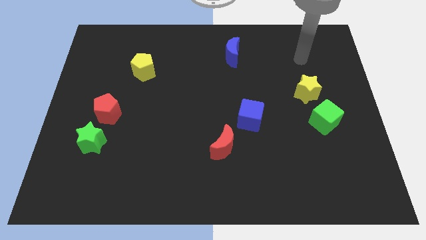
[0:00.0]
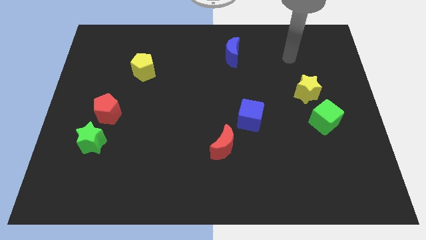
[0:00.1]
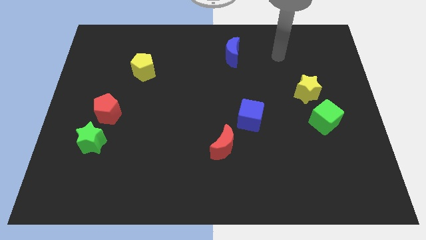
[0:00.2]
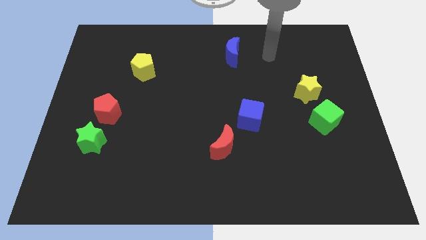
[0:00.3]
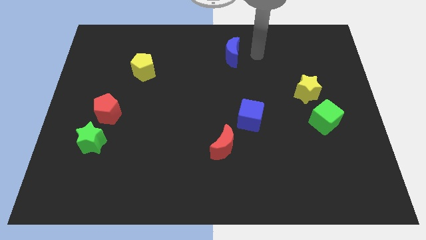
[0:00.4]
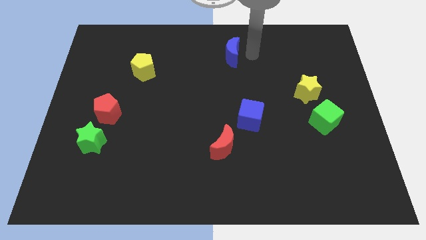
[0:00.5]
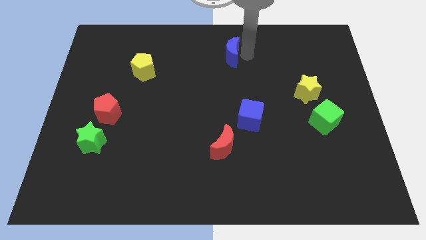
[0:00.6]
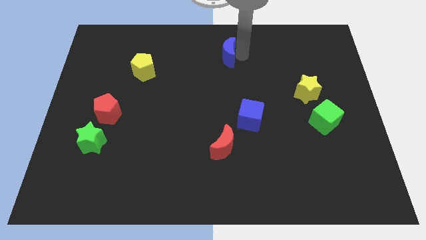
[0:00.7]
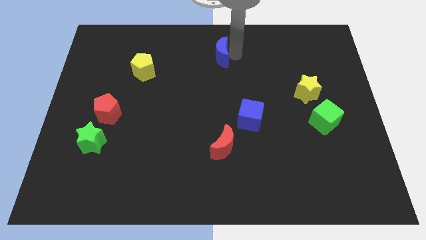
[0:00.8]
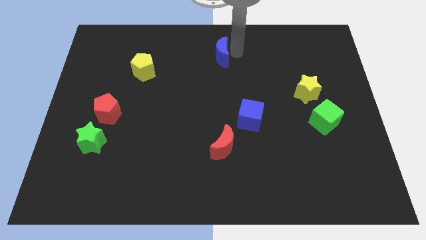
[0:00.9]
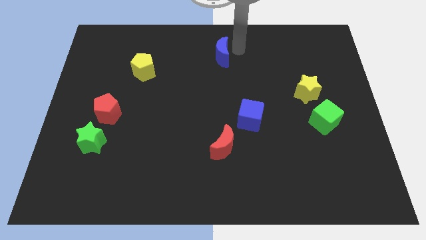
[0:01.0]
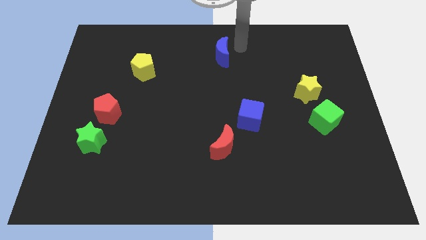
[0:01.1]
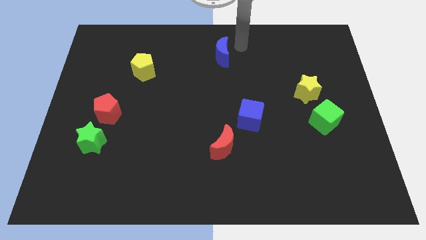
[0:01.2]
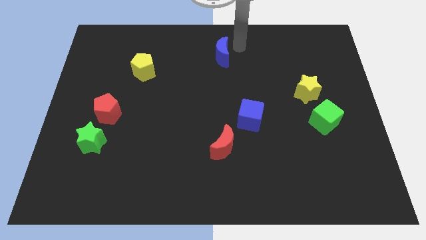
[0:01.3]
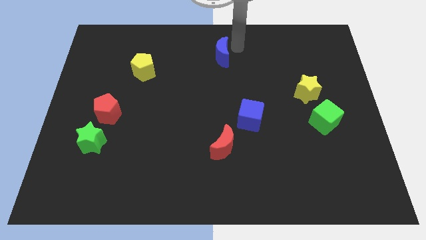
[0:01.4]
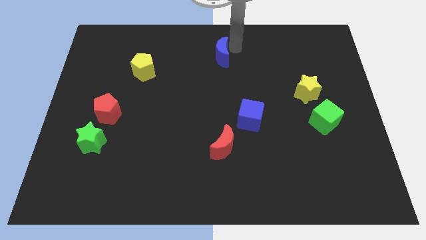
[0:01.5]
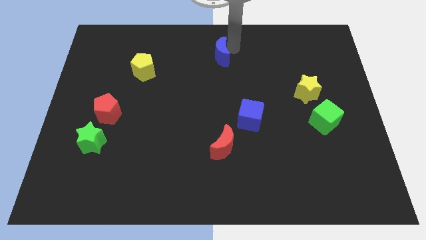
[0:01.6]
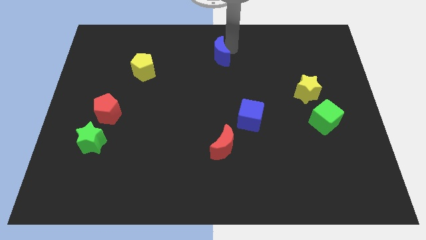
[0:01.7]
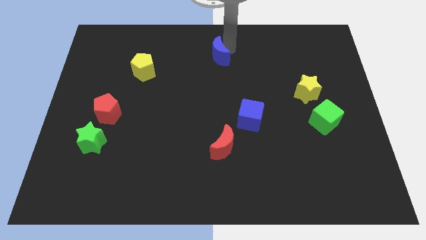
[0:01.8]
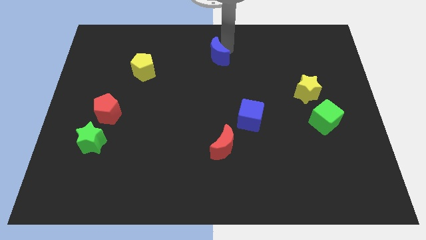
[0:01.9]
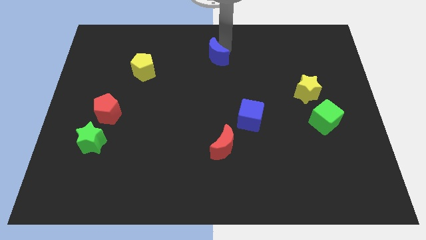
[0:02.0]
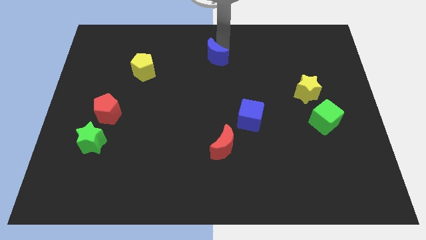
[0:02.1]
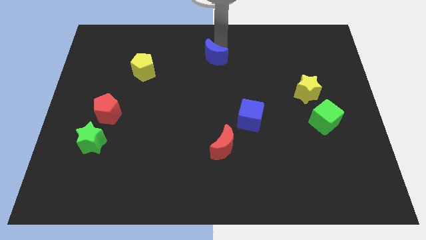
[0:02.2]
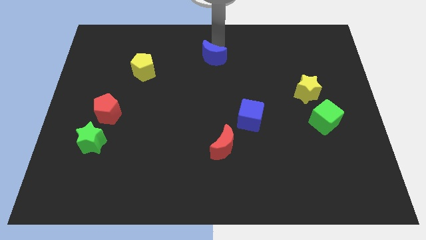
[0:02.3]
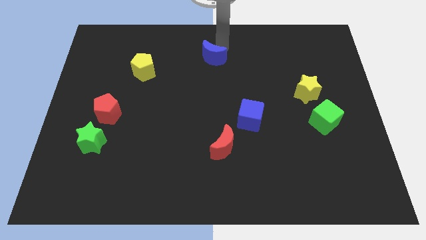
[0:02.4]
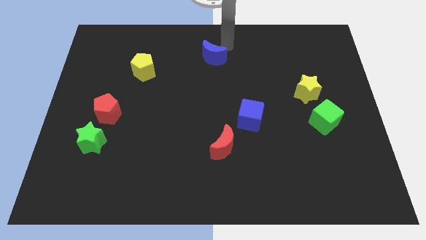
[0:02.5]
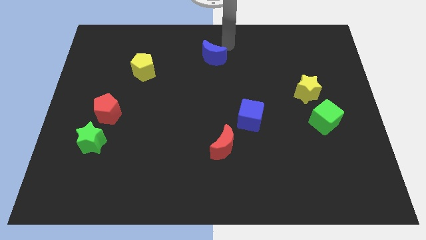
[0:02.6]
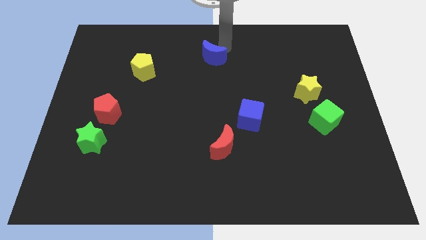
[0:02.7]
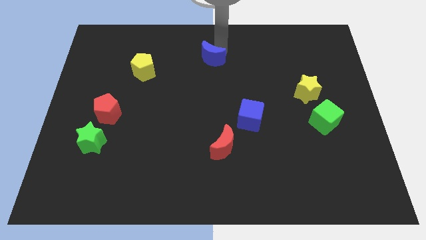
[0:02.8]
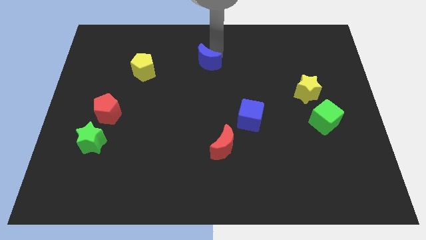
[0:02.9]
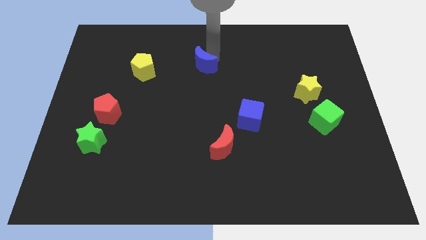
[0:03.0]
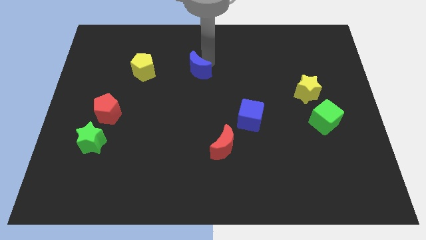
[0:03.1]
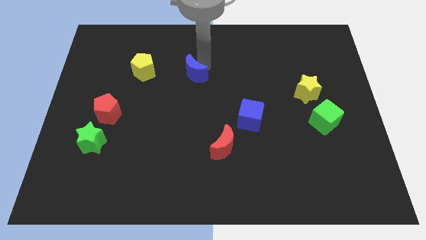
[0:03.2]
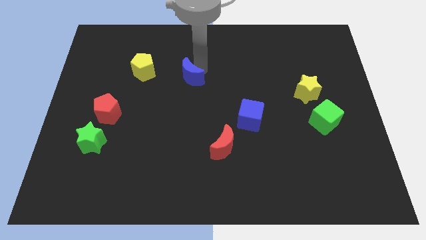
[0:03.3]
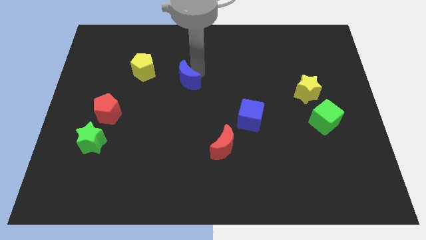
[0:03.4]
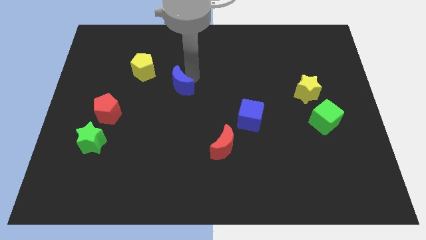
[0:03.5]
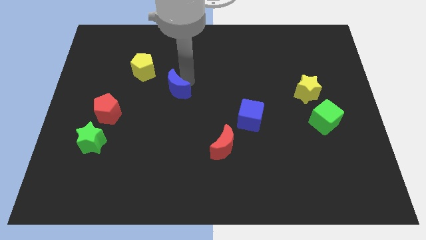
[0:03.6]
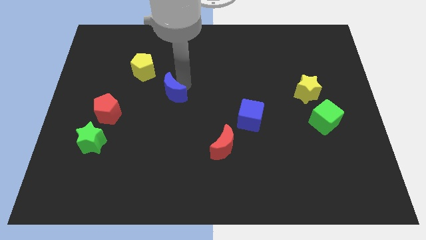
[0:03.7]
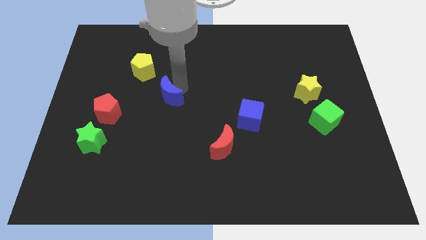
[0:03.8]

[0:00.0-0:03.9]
push the blue moon downwards and then to the left

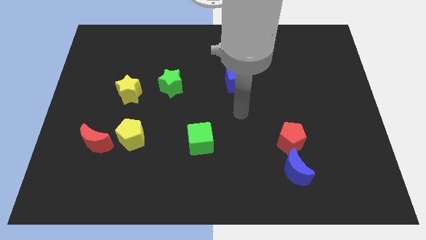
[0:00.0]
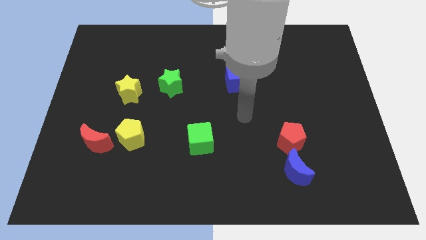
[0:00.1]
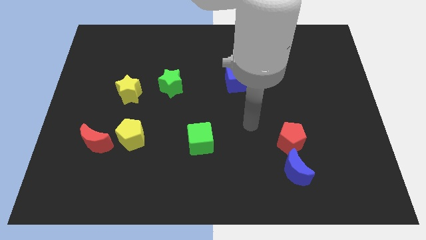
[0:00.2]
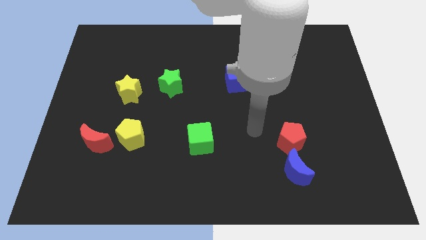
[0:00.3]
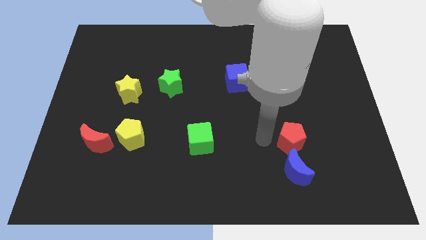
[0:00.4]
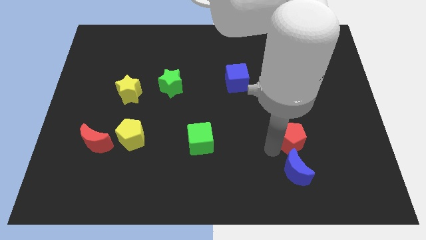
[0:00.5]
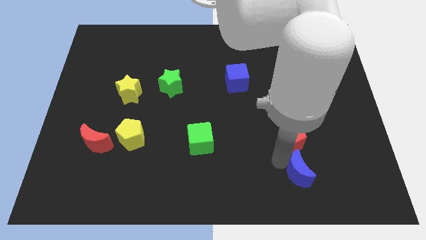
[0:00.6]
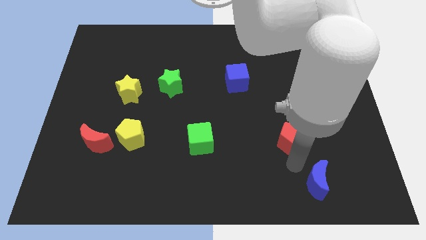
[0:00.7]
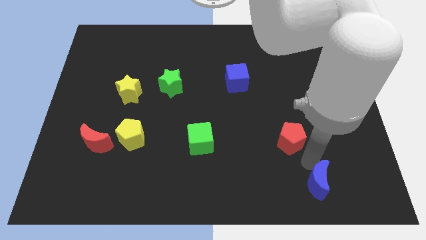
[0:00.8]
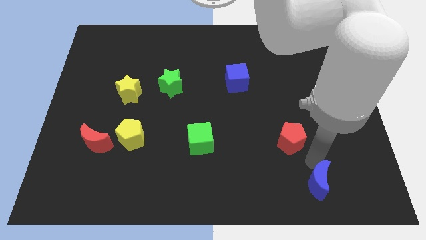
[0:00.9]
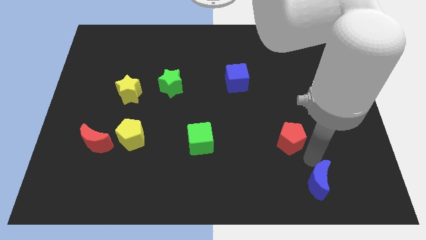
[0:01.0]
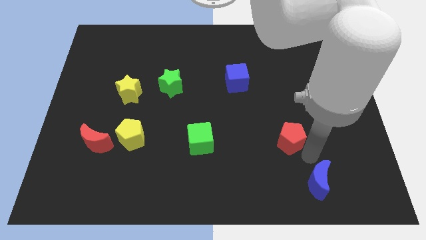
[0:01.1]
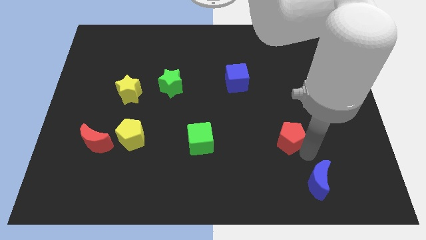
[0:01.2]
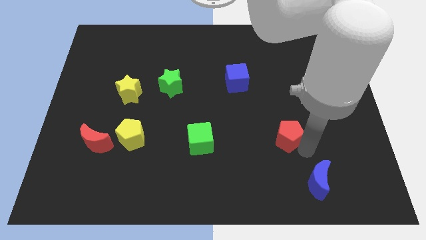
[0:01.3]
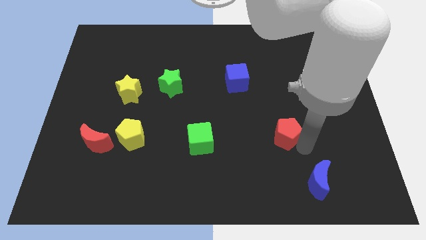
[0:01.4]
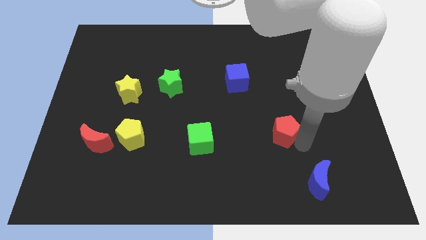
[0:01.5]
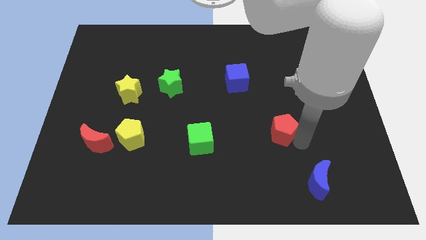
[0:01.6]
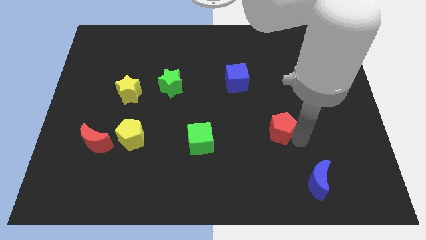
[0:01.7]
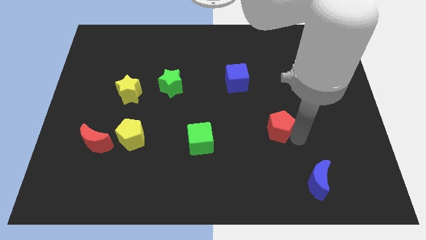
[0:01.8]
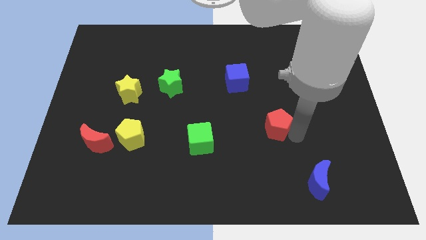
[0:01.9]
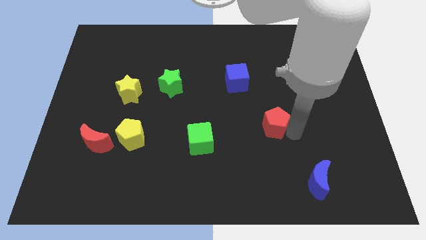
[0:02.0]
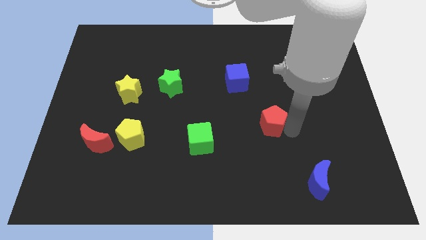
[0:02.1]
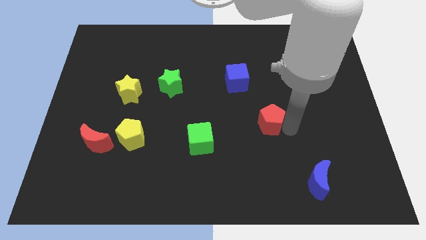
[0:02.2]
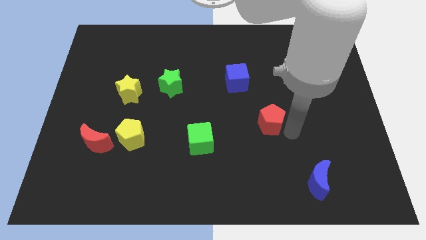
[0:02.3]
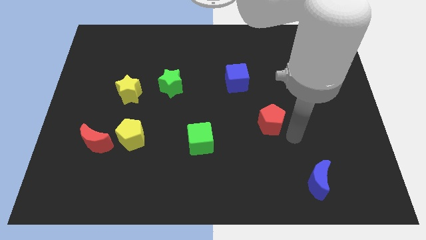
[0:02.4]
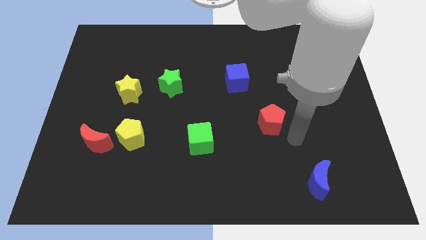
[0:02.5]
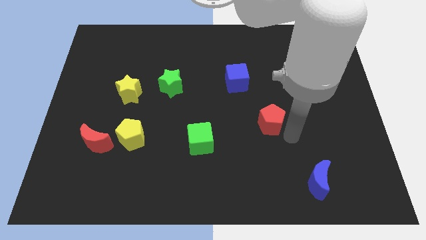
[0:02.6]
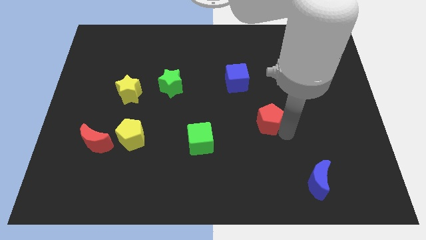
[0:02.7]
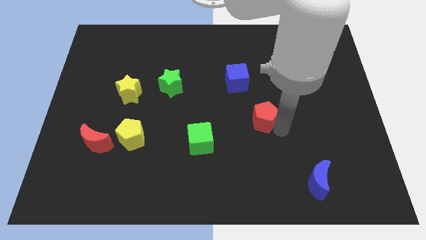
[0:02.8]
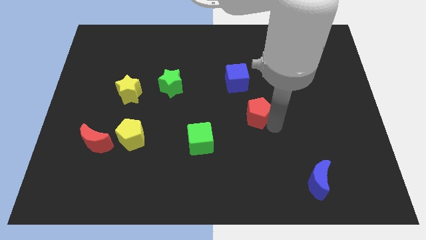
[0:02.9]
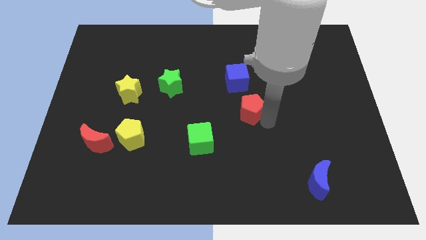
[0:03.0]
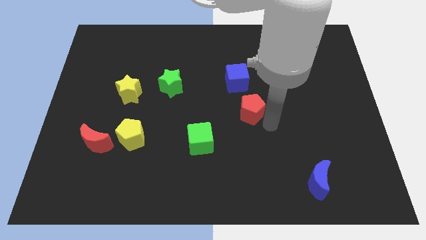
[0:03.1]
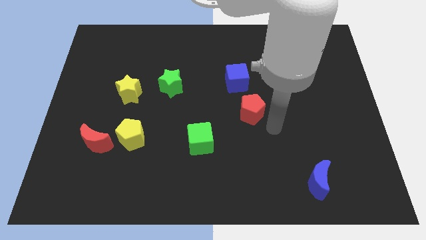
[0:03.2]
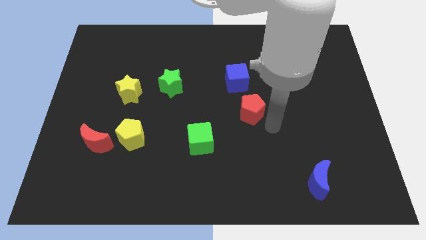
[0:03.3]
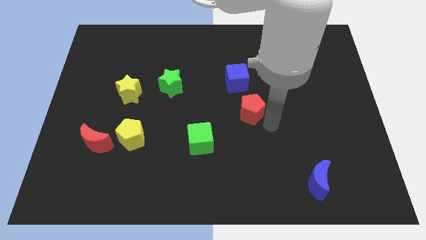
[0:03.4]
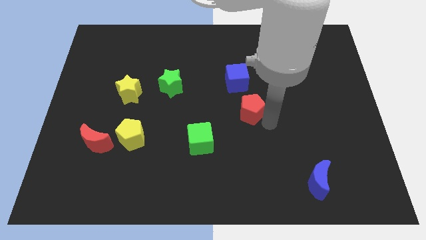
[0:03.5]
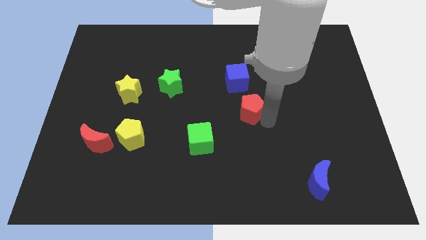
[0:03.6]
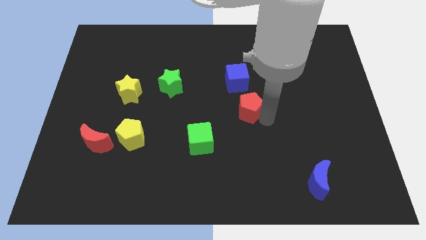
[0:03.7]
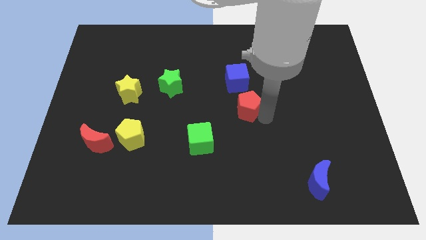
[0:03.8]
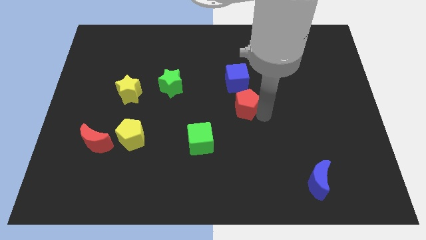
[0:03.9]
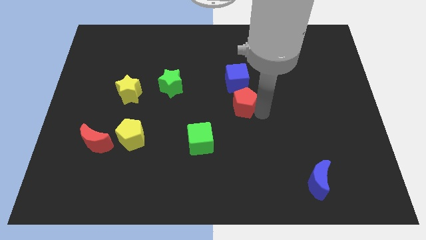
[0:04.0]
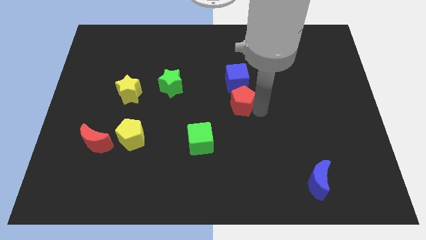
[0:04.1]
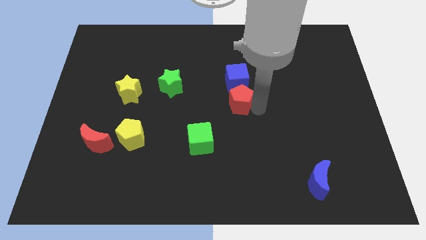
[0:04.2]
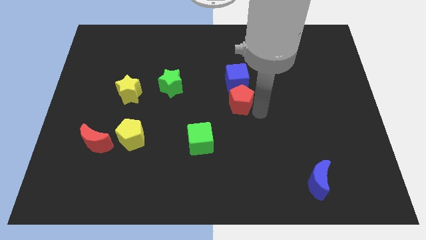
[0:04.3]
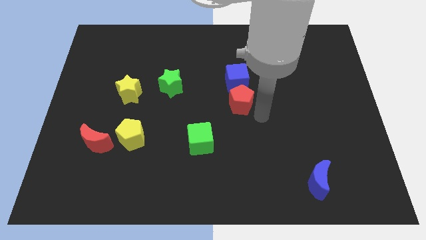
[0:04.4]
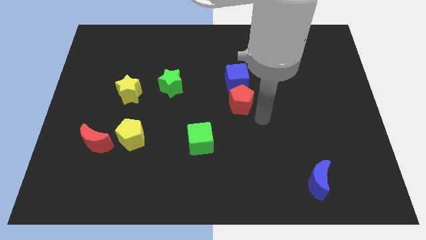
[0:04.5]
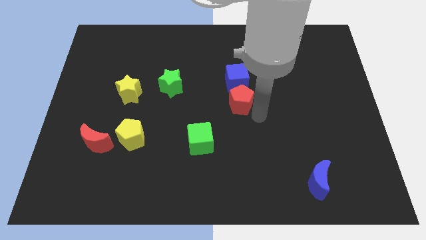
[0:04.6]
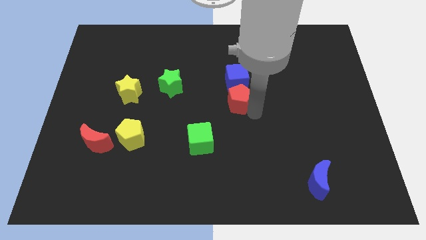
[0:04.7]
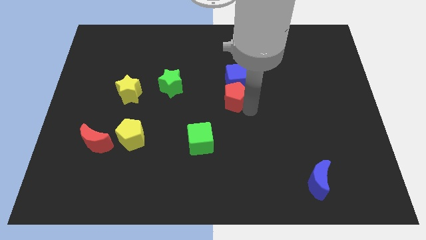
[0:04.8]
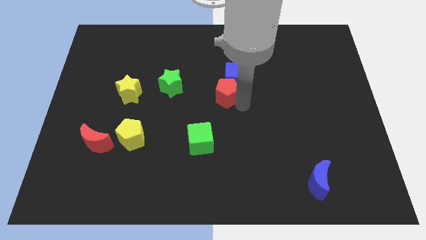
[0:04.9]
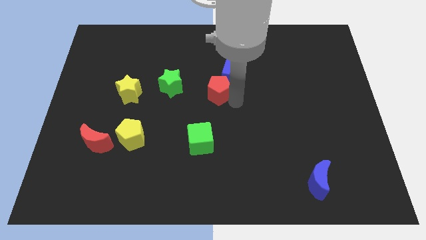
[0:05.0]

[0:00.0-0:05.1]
push the red pentagon upwards and left diagonally
